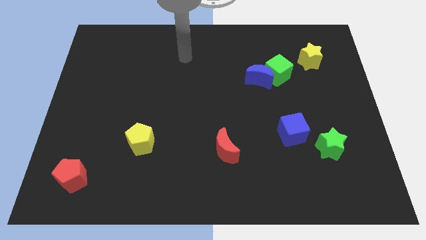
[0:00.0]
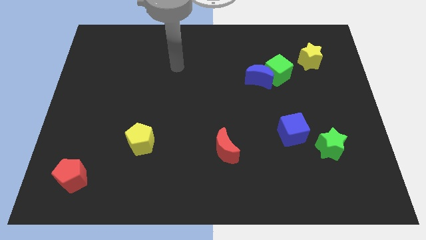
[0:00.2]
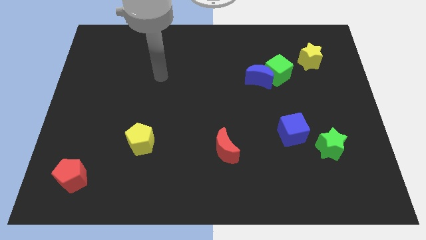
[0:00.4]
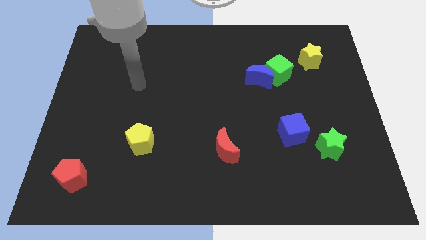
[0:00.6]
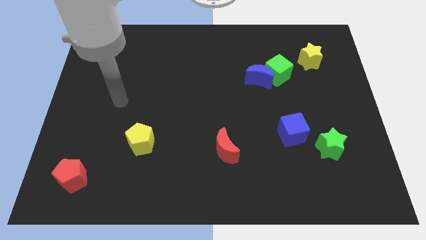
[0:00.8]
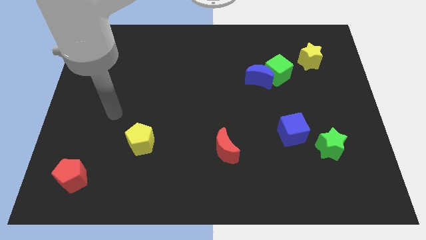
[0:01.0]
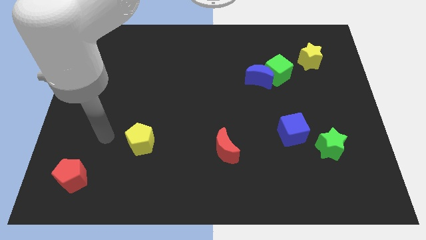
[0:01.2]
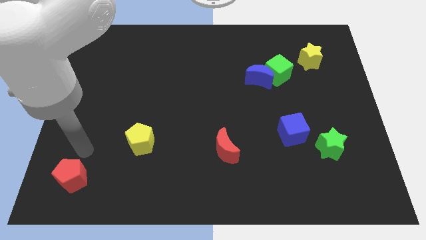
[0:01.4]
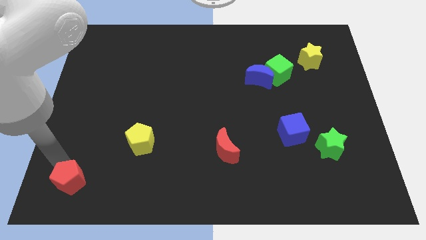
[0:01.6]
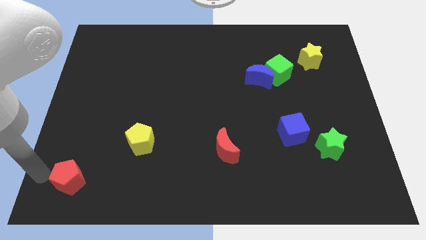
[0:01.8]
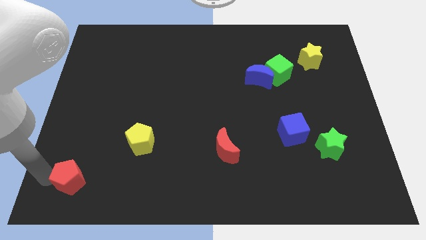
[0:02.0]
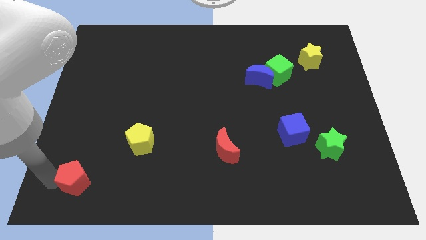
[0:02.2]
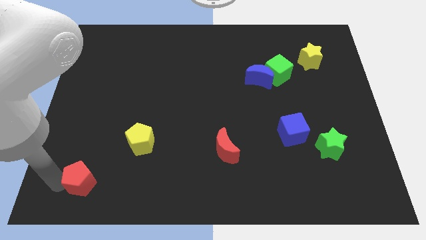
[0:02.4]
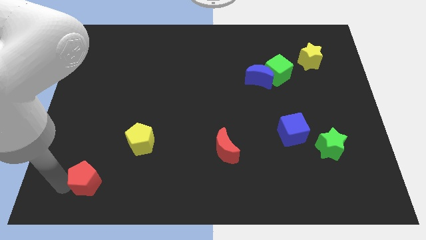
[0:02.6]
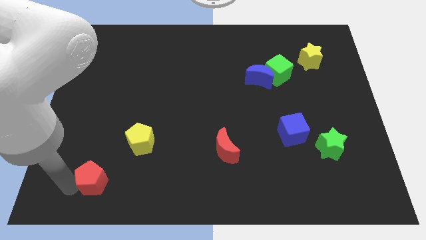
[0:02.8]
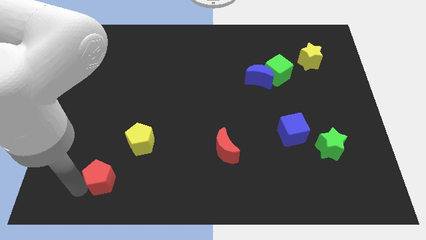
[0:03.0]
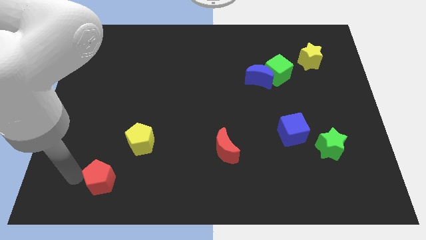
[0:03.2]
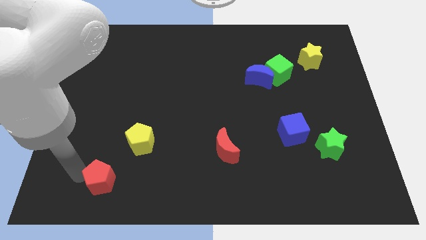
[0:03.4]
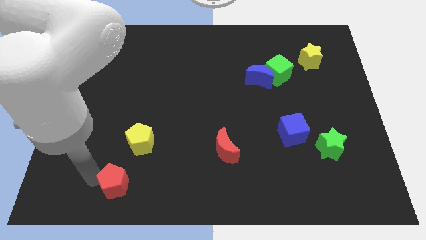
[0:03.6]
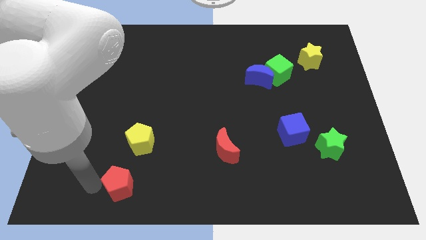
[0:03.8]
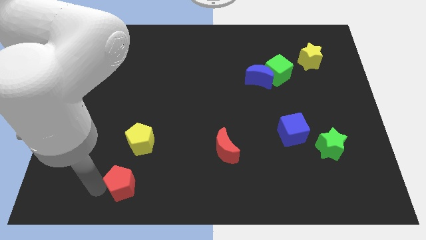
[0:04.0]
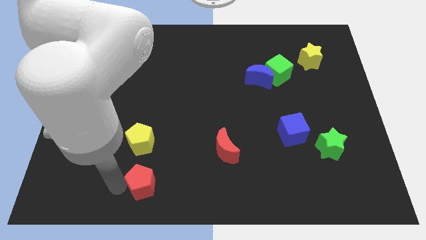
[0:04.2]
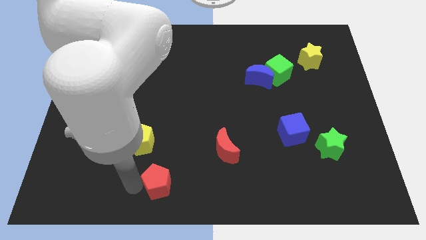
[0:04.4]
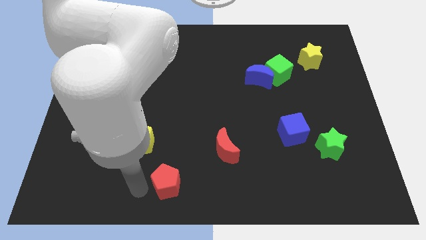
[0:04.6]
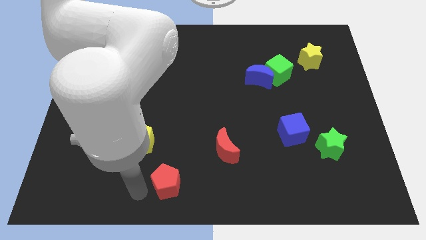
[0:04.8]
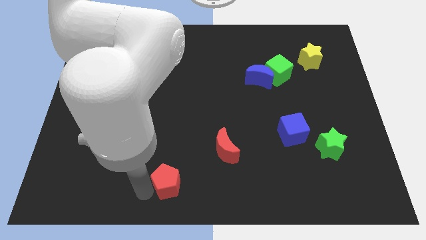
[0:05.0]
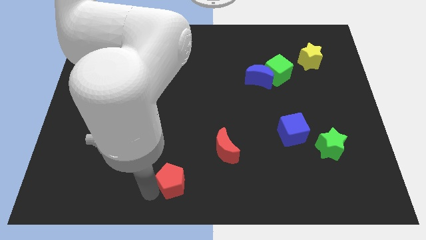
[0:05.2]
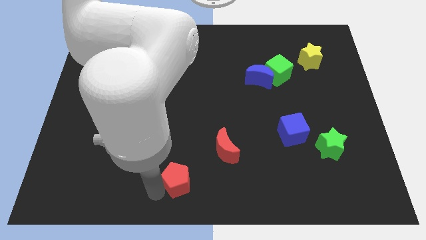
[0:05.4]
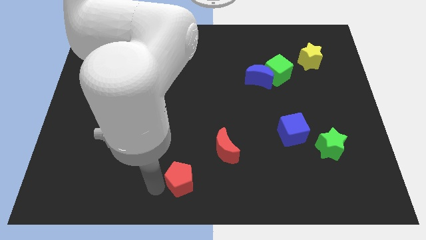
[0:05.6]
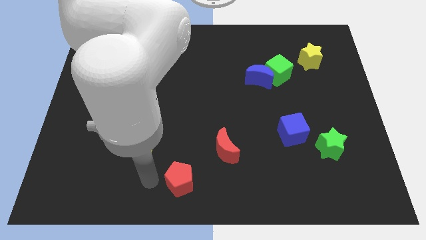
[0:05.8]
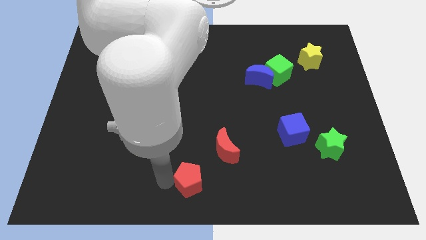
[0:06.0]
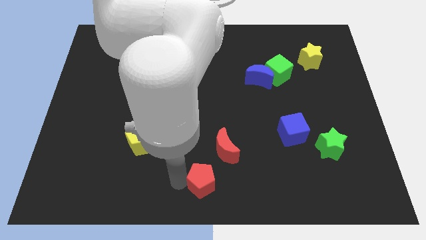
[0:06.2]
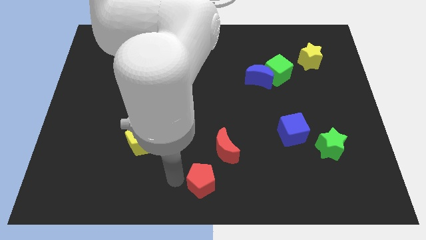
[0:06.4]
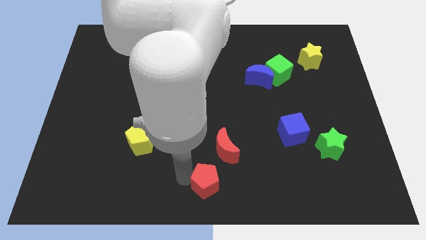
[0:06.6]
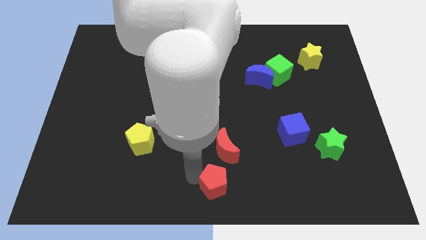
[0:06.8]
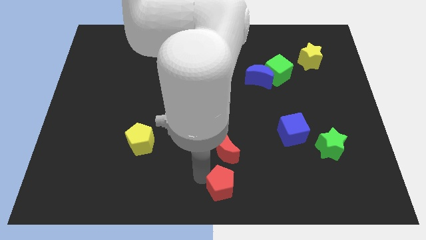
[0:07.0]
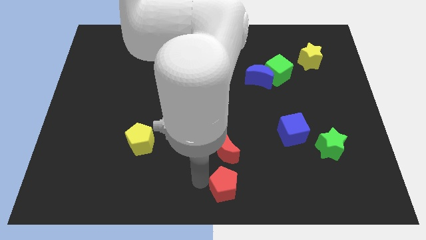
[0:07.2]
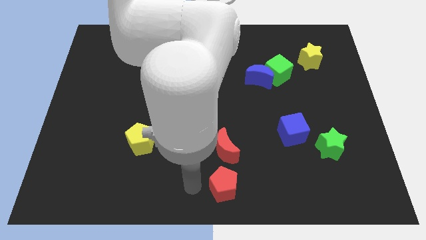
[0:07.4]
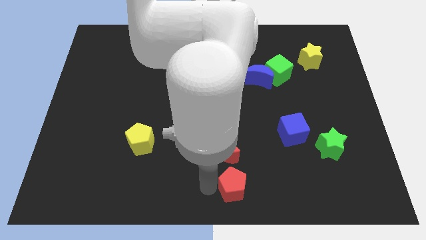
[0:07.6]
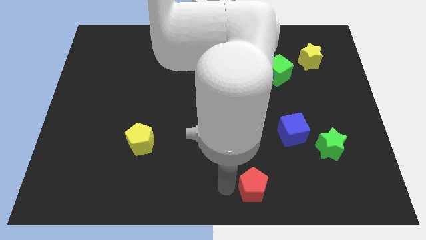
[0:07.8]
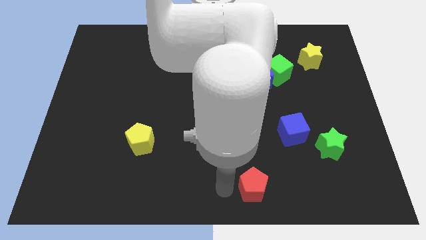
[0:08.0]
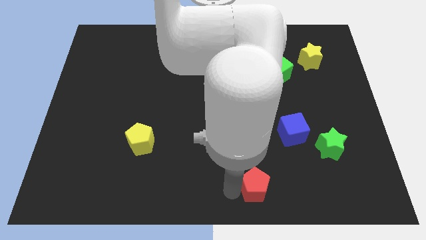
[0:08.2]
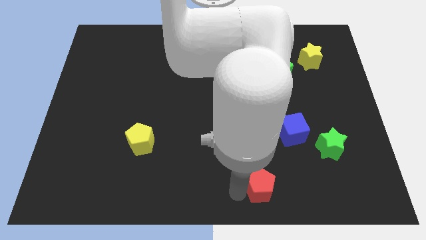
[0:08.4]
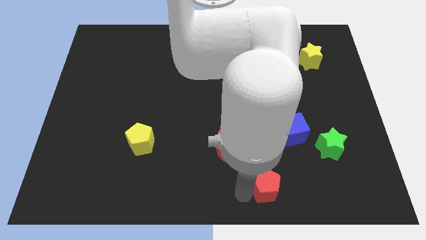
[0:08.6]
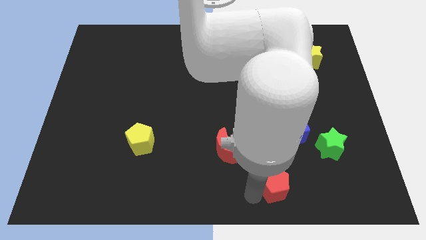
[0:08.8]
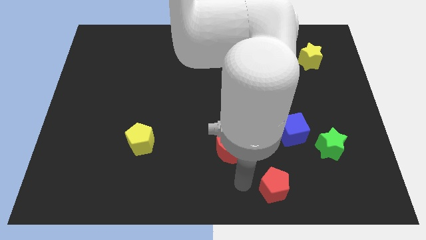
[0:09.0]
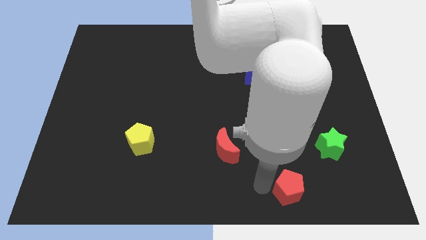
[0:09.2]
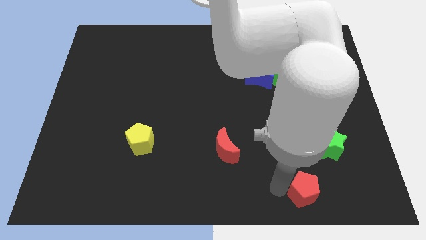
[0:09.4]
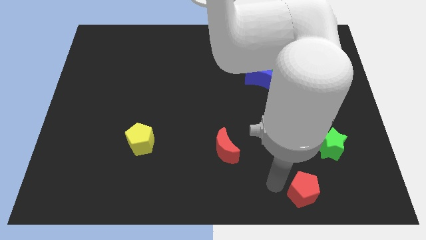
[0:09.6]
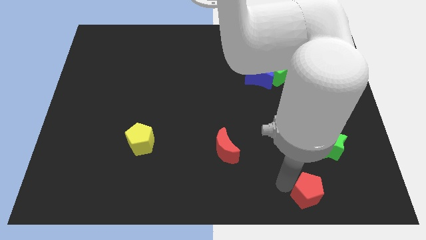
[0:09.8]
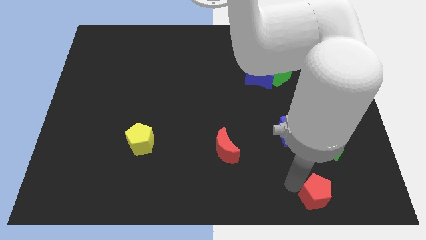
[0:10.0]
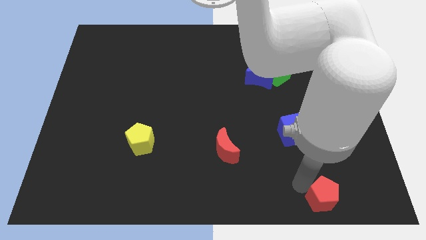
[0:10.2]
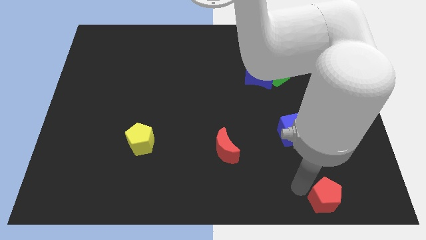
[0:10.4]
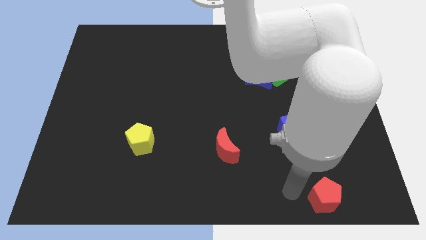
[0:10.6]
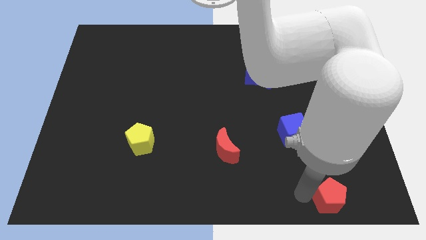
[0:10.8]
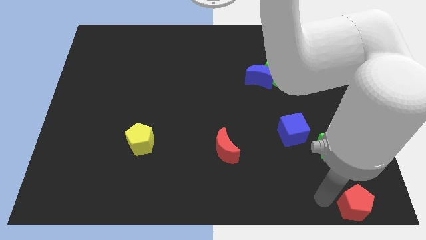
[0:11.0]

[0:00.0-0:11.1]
move the red pentagon to the bottom right corner

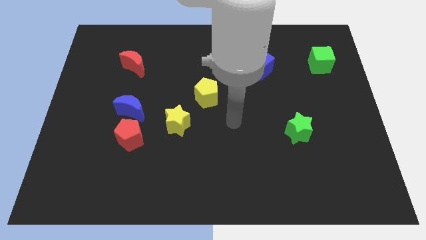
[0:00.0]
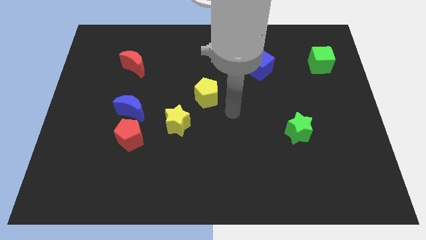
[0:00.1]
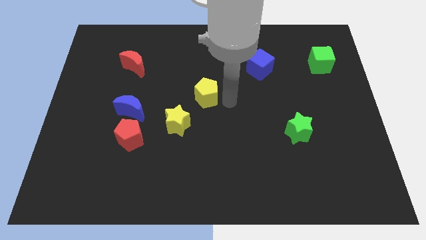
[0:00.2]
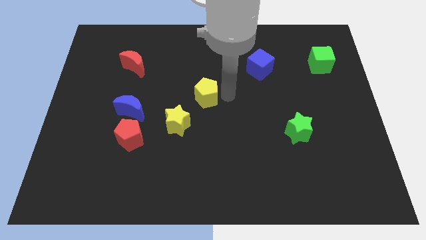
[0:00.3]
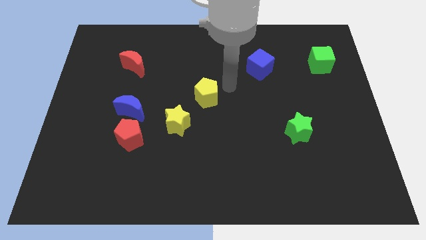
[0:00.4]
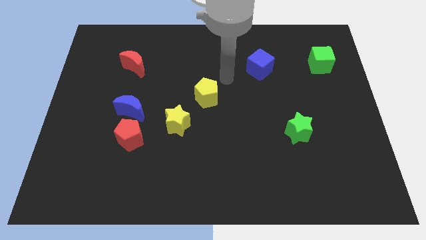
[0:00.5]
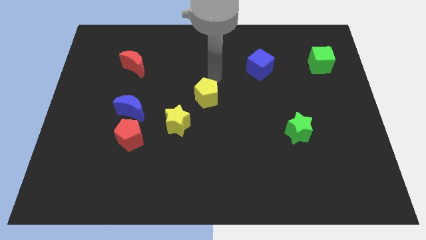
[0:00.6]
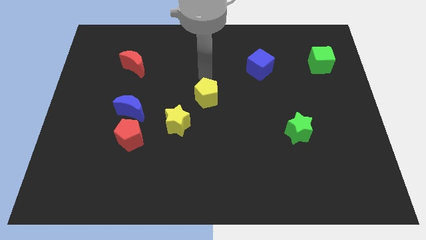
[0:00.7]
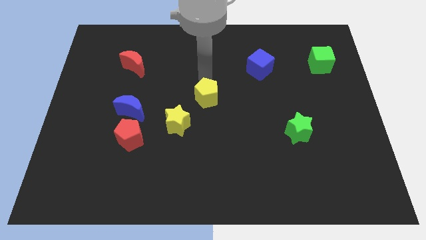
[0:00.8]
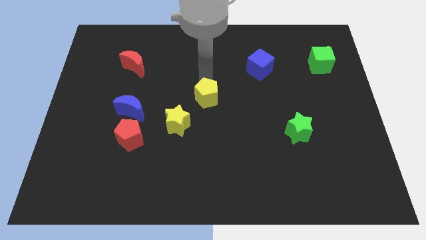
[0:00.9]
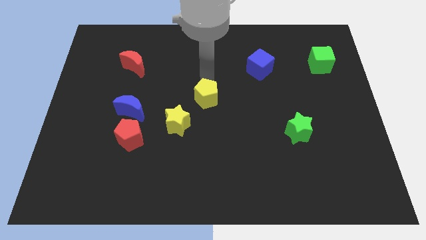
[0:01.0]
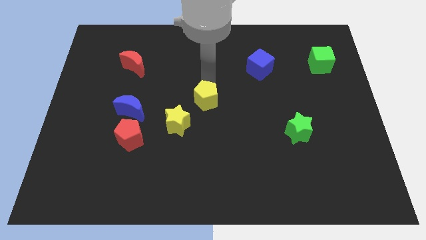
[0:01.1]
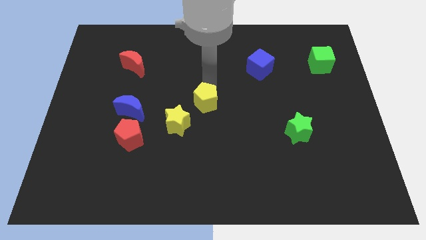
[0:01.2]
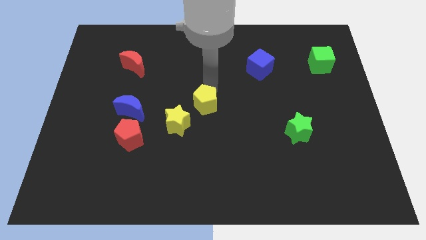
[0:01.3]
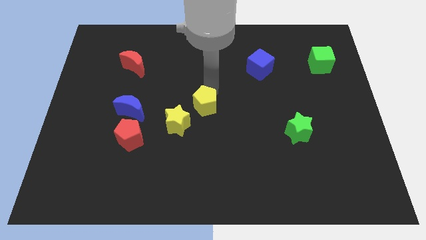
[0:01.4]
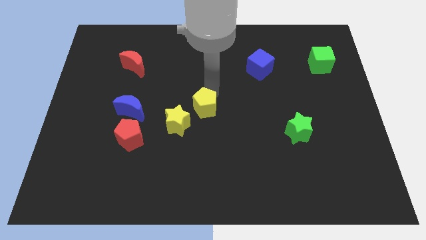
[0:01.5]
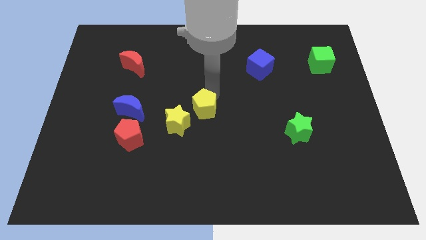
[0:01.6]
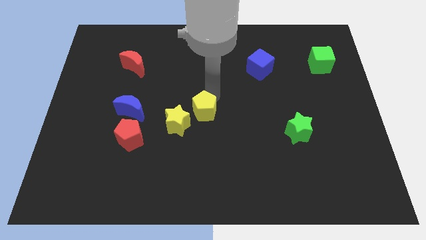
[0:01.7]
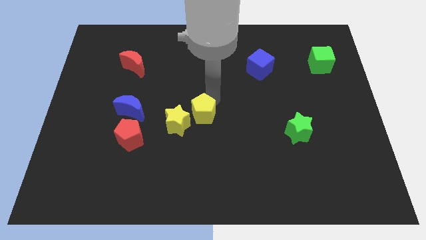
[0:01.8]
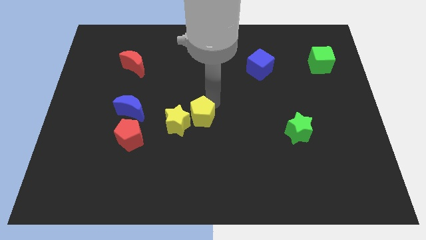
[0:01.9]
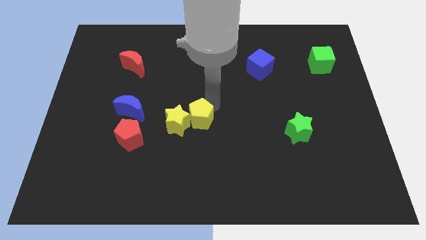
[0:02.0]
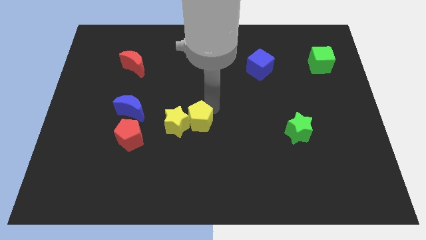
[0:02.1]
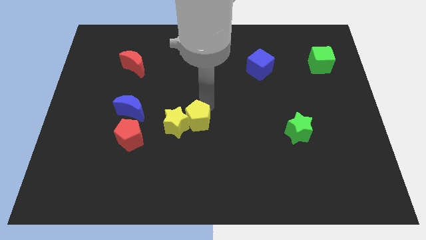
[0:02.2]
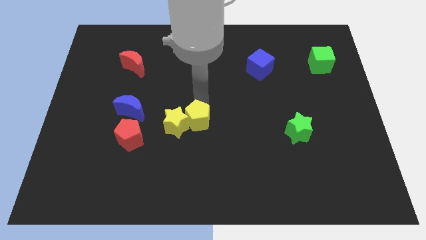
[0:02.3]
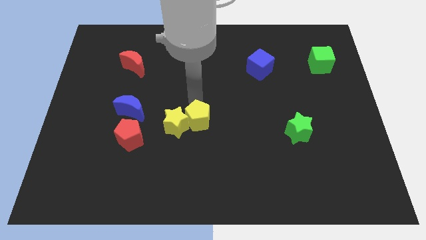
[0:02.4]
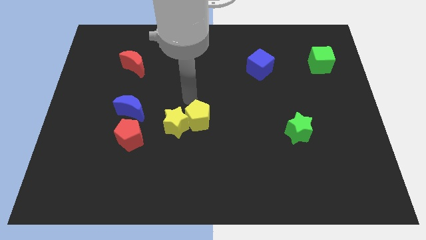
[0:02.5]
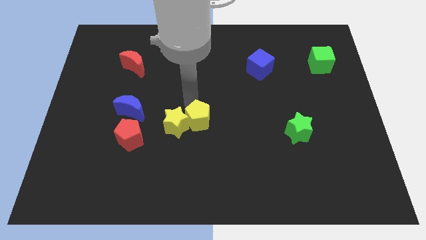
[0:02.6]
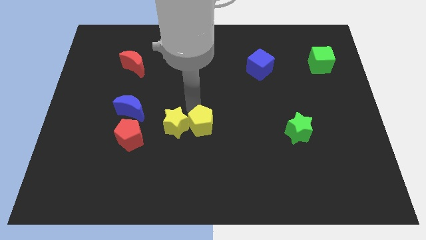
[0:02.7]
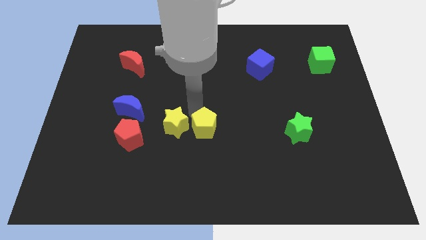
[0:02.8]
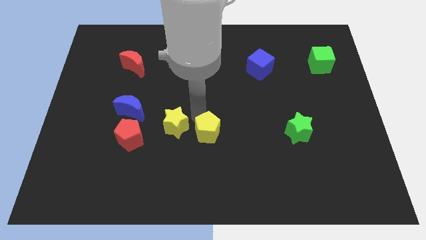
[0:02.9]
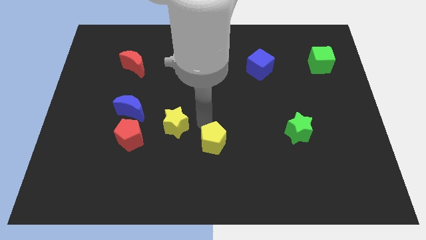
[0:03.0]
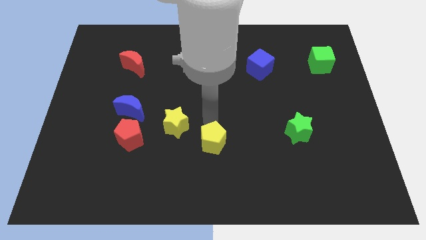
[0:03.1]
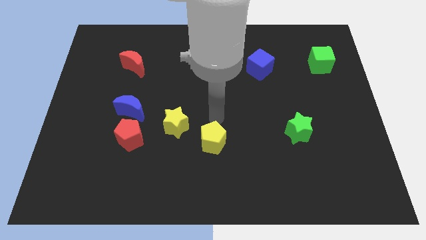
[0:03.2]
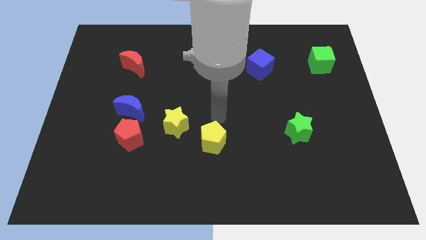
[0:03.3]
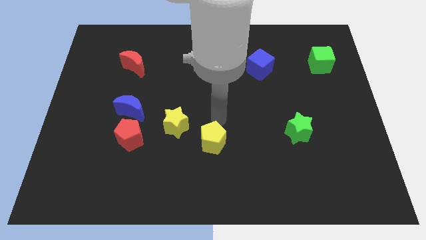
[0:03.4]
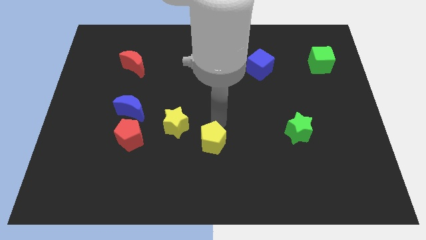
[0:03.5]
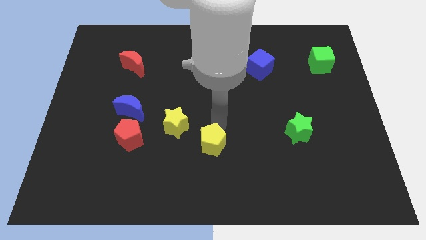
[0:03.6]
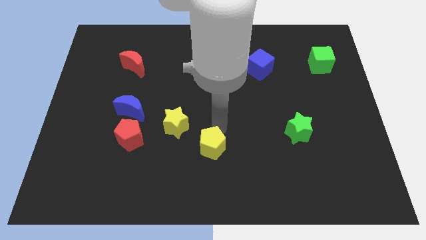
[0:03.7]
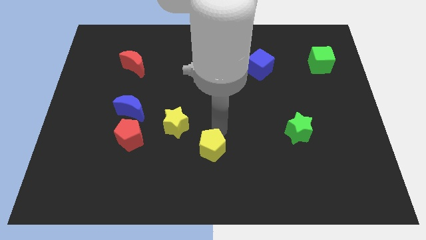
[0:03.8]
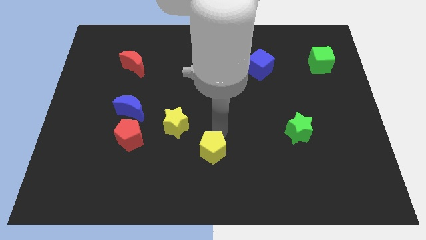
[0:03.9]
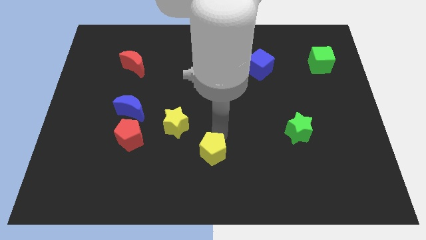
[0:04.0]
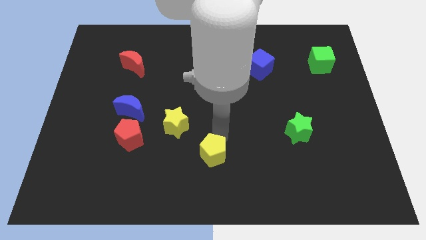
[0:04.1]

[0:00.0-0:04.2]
put the yellow pentagon to the bottom side
